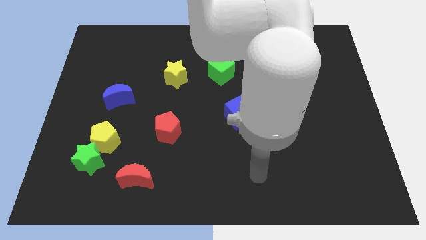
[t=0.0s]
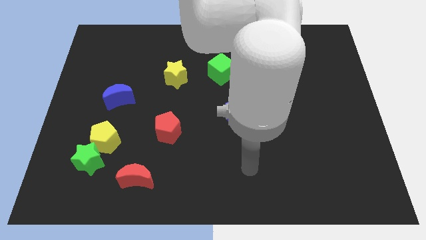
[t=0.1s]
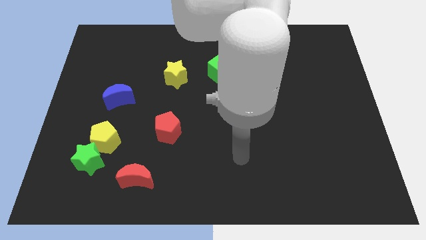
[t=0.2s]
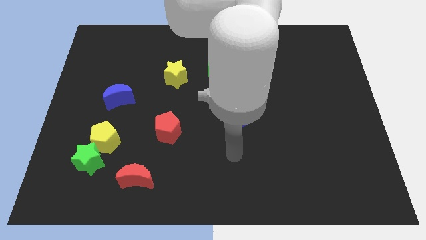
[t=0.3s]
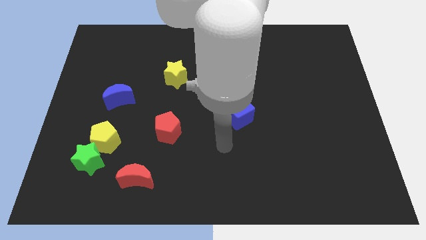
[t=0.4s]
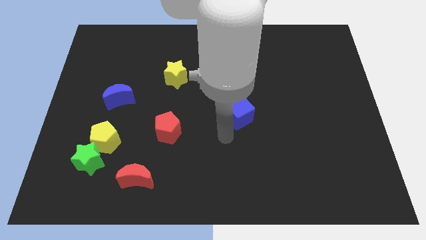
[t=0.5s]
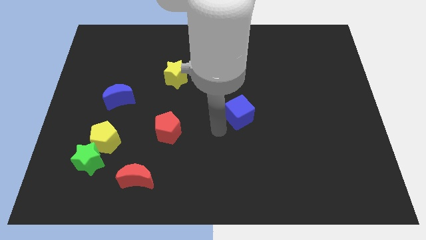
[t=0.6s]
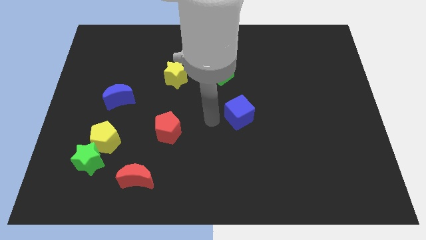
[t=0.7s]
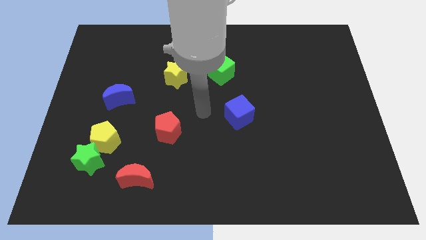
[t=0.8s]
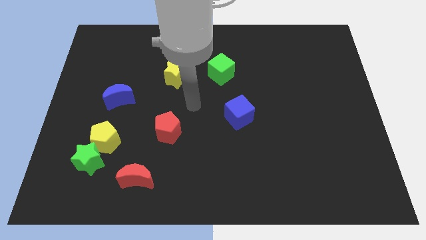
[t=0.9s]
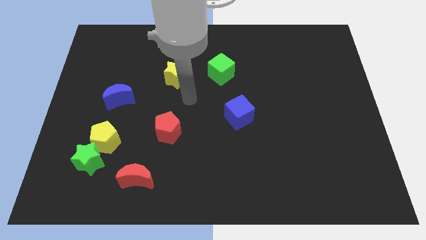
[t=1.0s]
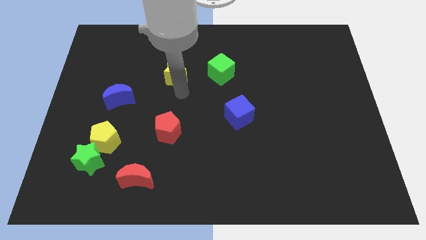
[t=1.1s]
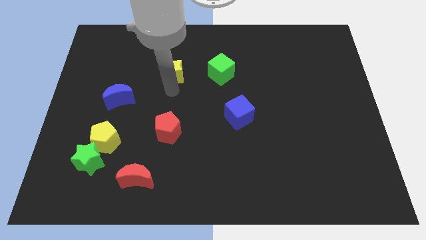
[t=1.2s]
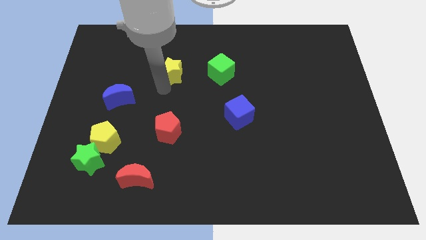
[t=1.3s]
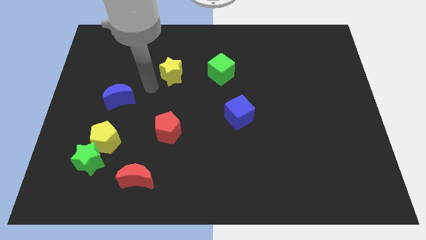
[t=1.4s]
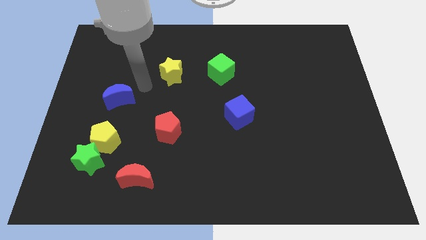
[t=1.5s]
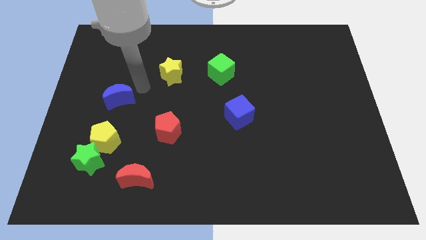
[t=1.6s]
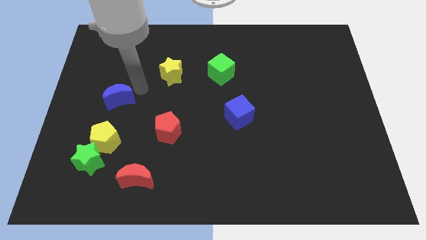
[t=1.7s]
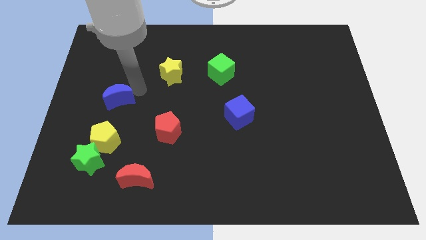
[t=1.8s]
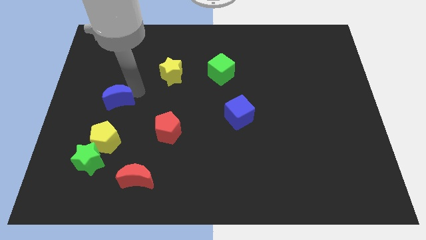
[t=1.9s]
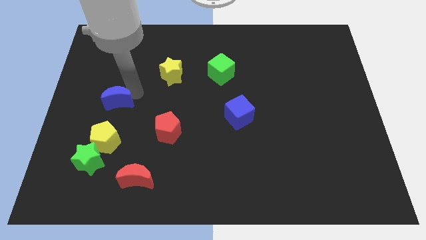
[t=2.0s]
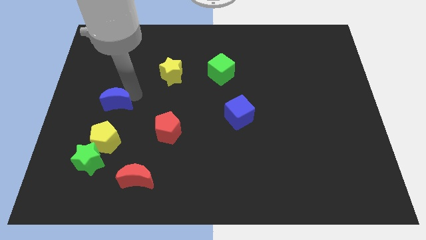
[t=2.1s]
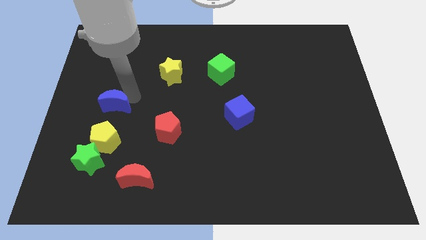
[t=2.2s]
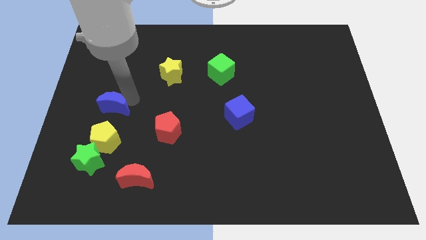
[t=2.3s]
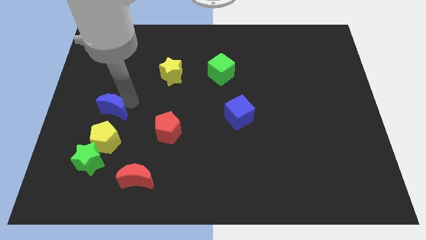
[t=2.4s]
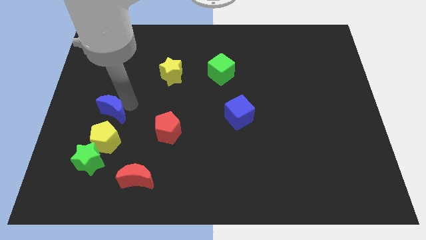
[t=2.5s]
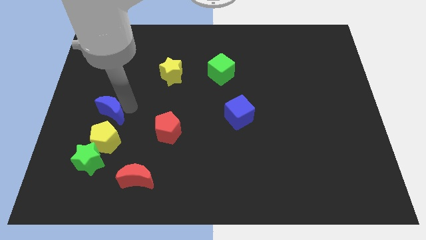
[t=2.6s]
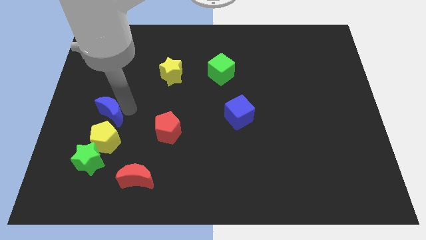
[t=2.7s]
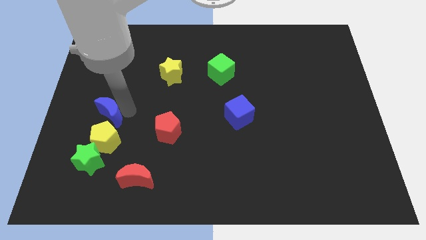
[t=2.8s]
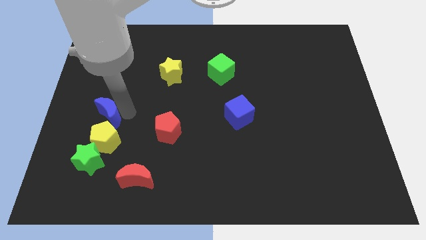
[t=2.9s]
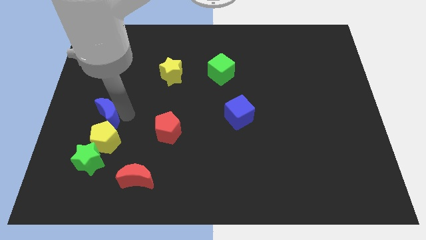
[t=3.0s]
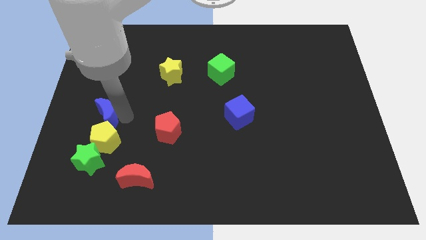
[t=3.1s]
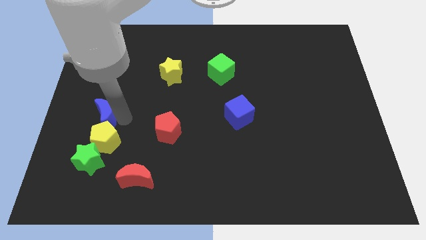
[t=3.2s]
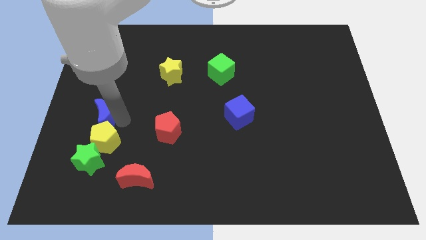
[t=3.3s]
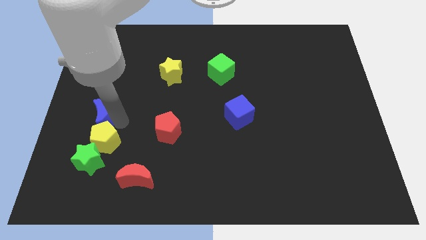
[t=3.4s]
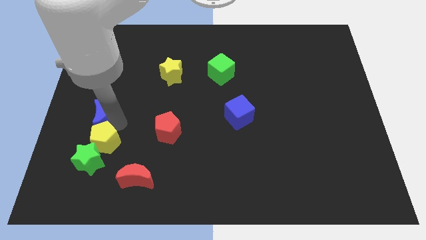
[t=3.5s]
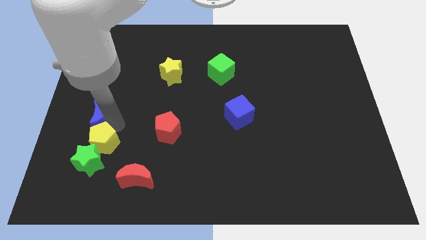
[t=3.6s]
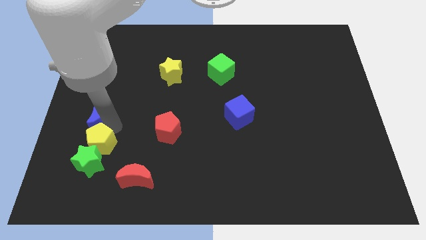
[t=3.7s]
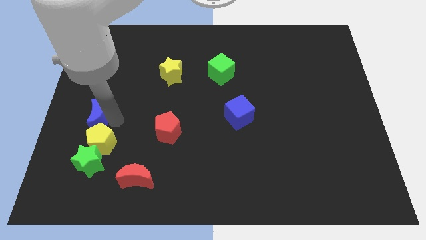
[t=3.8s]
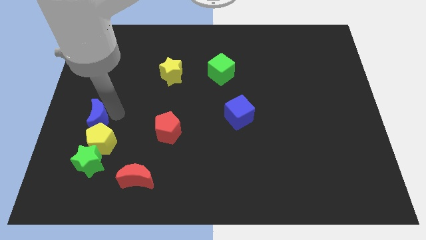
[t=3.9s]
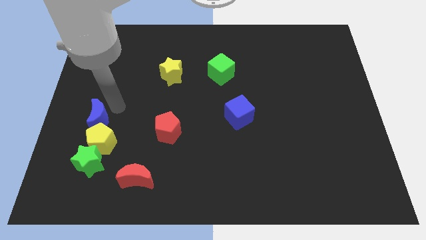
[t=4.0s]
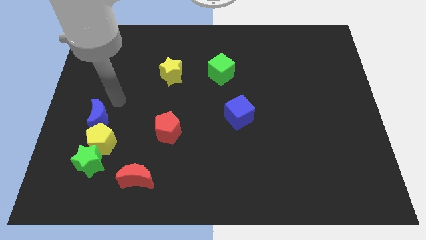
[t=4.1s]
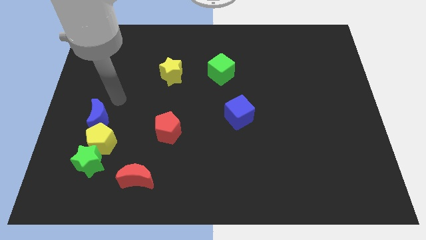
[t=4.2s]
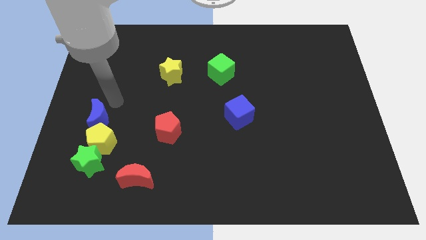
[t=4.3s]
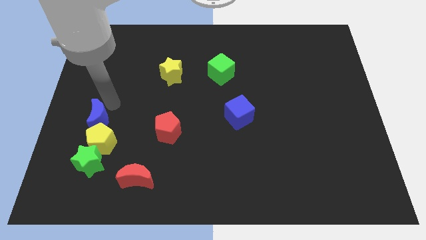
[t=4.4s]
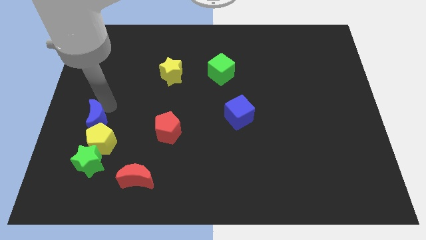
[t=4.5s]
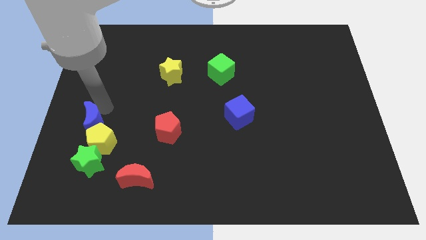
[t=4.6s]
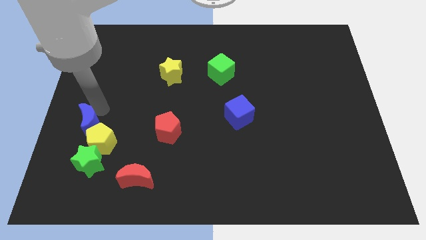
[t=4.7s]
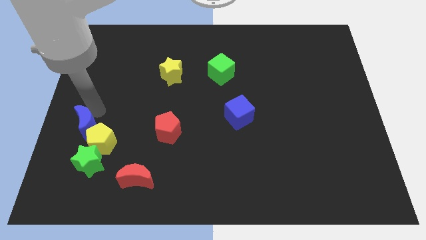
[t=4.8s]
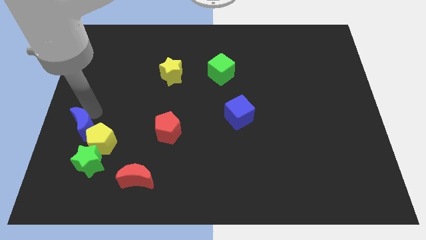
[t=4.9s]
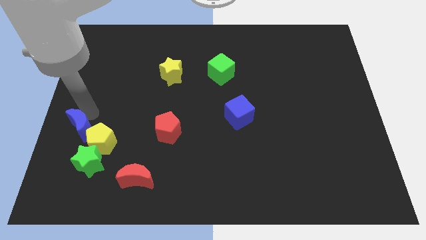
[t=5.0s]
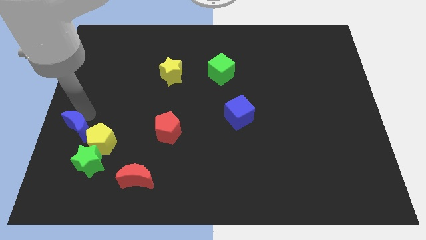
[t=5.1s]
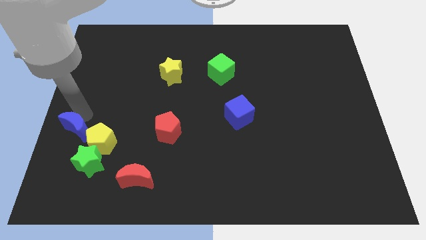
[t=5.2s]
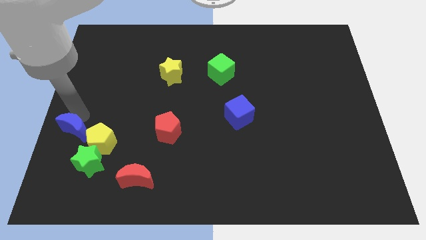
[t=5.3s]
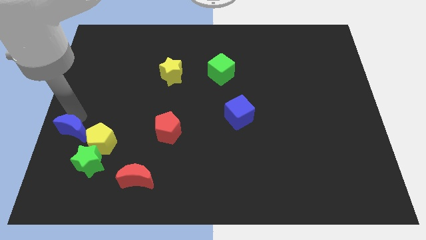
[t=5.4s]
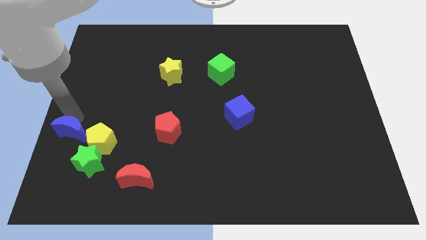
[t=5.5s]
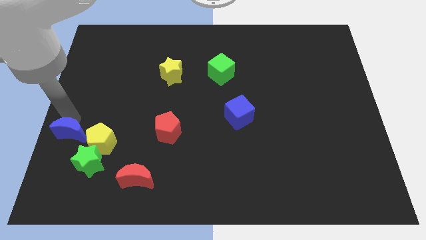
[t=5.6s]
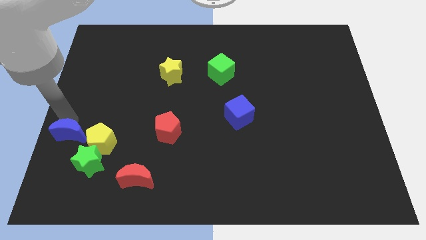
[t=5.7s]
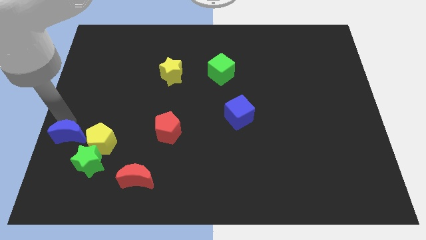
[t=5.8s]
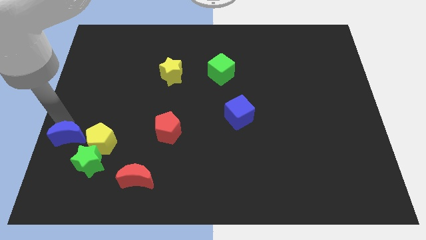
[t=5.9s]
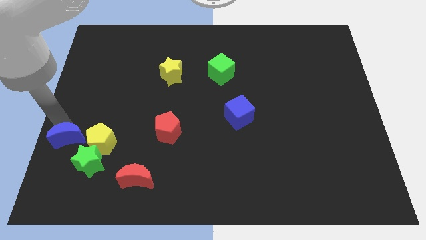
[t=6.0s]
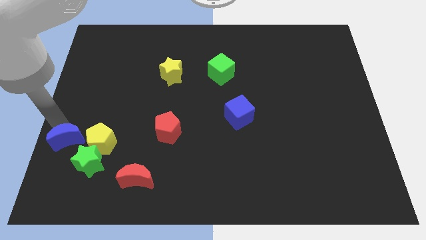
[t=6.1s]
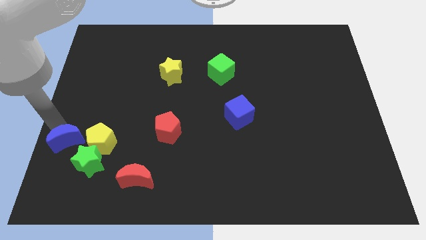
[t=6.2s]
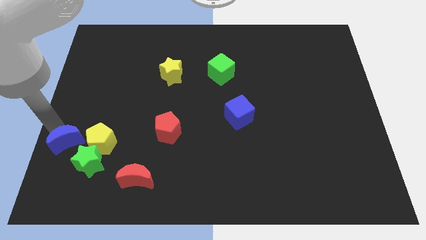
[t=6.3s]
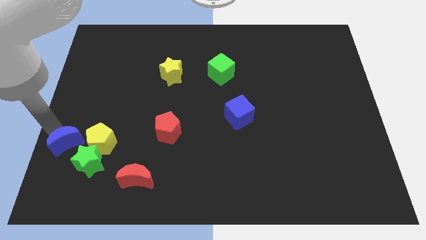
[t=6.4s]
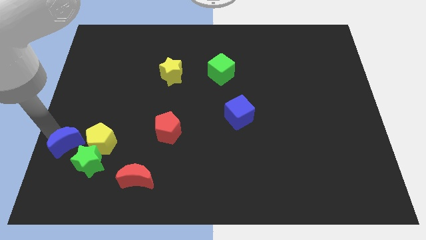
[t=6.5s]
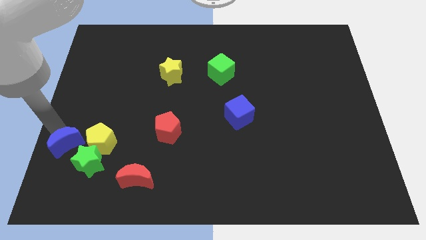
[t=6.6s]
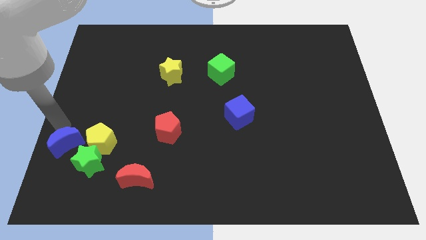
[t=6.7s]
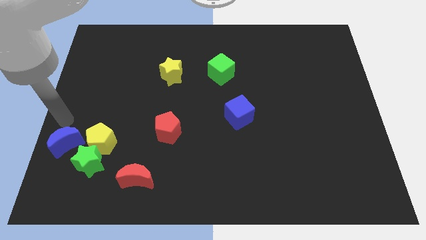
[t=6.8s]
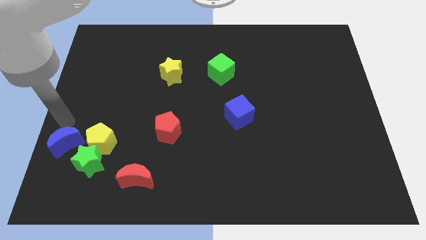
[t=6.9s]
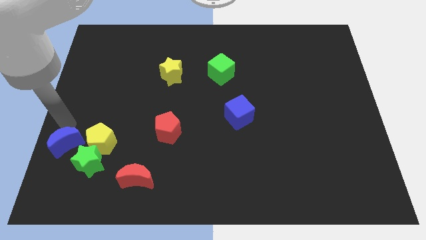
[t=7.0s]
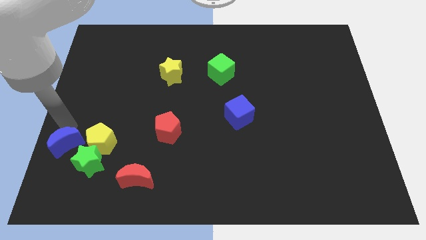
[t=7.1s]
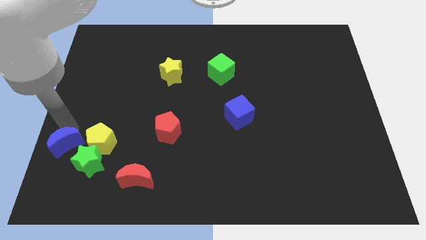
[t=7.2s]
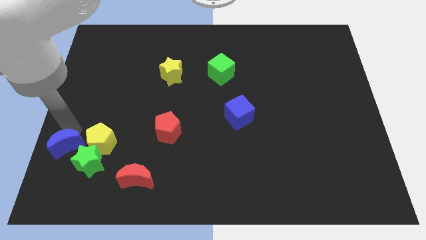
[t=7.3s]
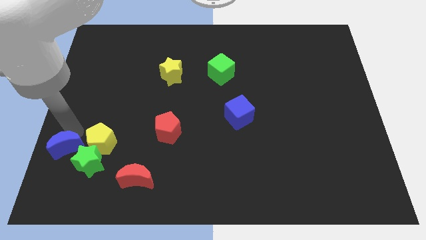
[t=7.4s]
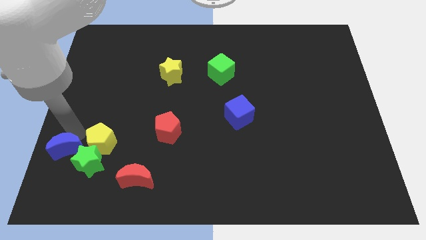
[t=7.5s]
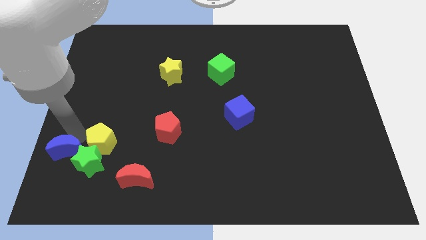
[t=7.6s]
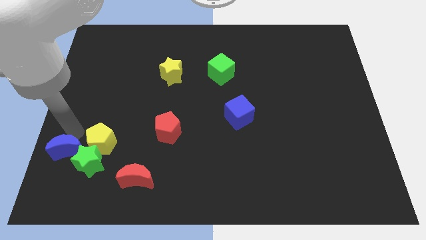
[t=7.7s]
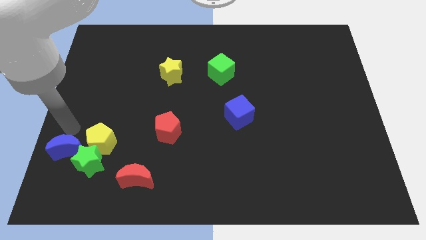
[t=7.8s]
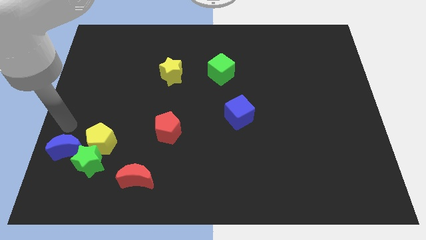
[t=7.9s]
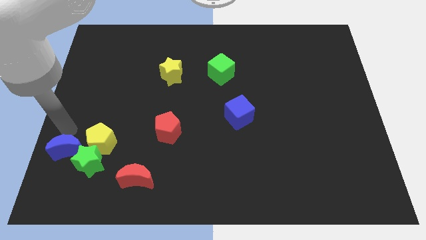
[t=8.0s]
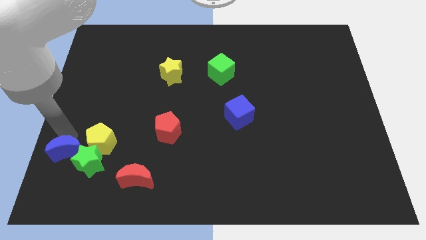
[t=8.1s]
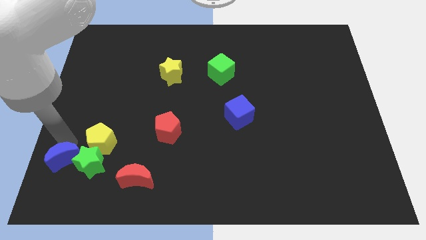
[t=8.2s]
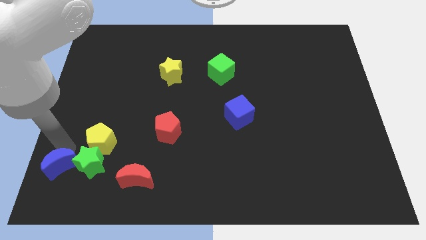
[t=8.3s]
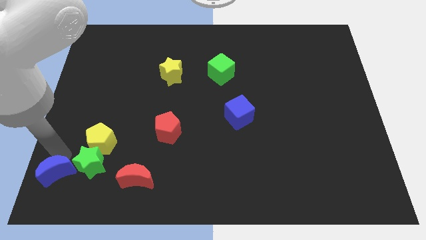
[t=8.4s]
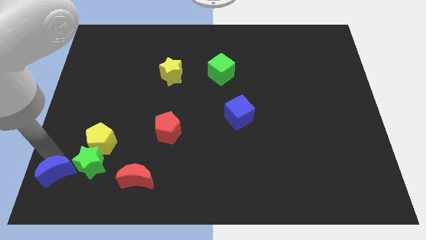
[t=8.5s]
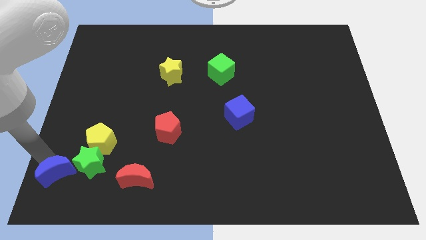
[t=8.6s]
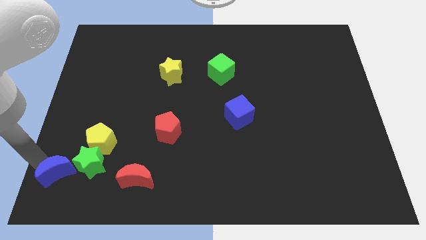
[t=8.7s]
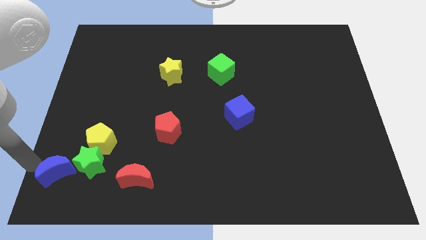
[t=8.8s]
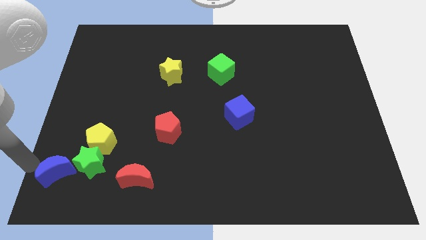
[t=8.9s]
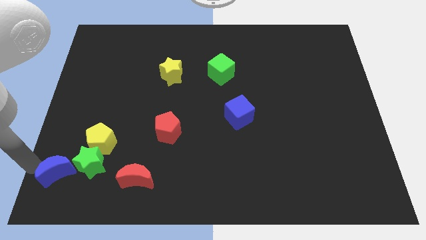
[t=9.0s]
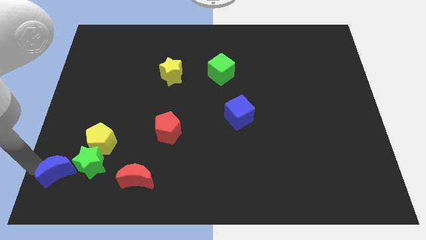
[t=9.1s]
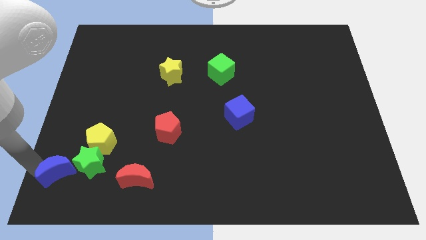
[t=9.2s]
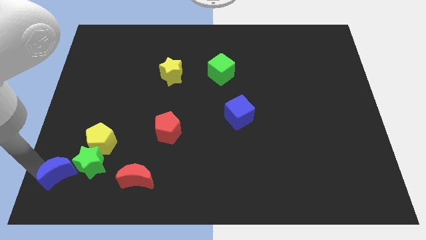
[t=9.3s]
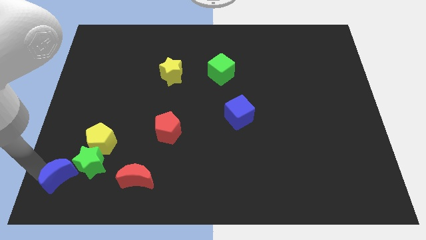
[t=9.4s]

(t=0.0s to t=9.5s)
move the blue moon to the left side of the red moon
